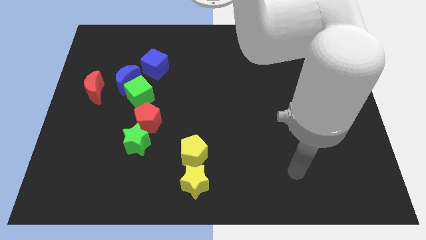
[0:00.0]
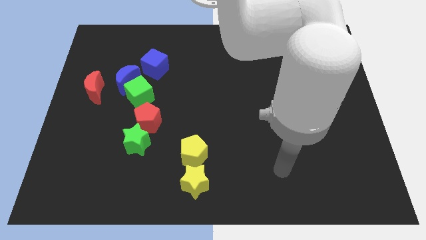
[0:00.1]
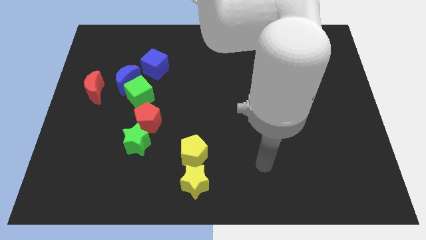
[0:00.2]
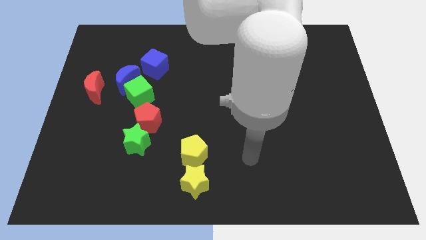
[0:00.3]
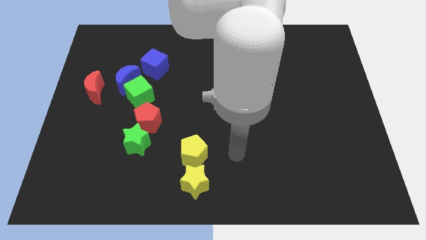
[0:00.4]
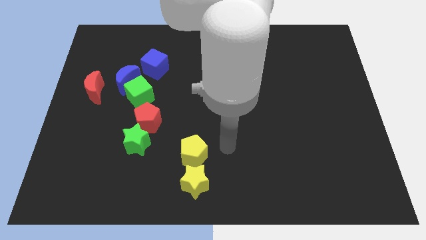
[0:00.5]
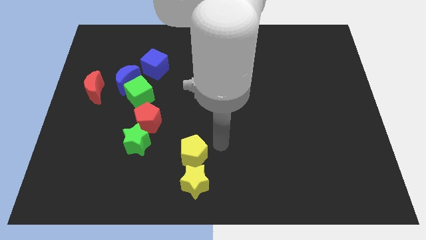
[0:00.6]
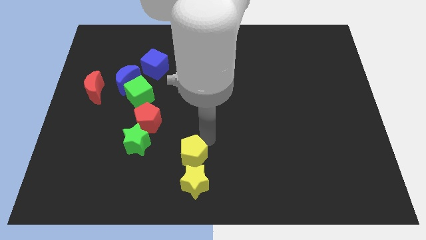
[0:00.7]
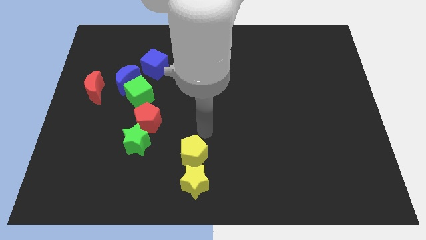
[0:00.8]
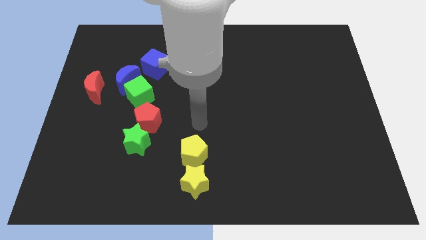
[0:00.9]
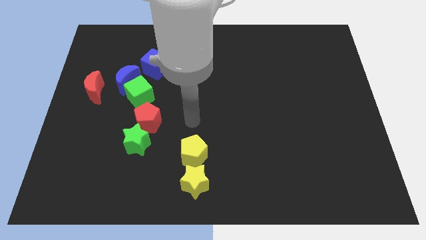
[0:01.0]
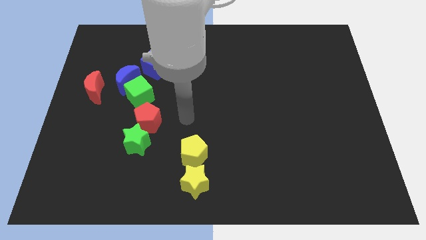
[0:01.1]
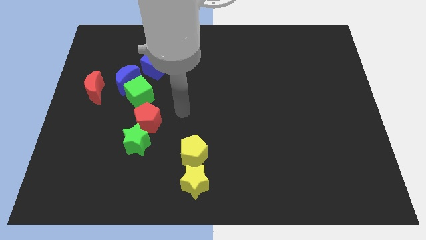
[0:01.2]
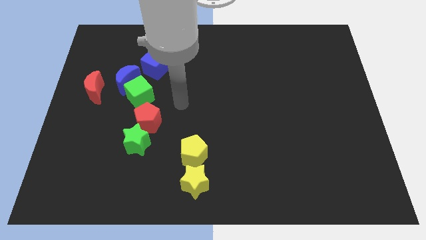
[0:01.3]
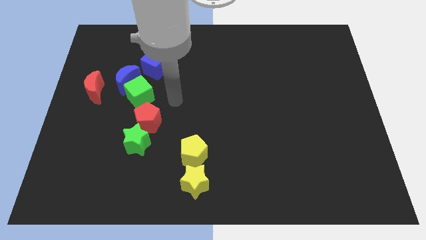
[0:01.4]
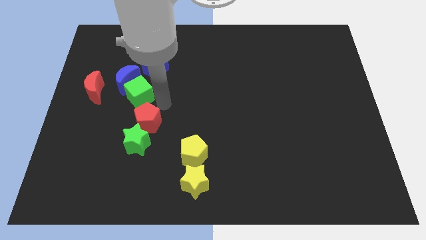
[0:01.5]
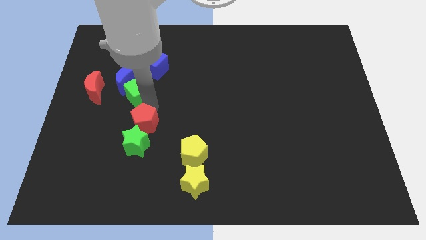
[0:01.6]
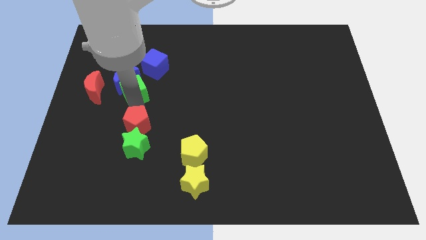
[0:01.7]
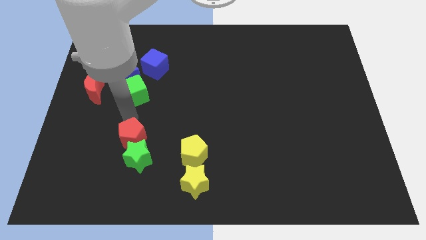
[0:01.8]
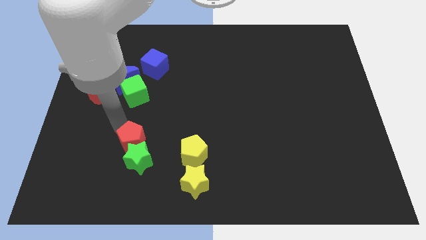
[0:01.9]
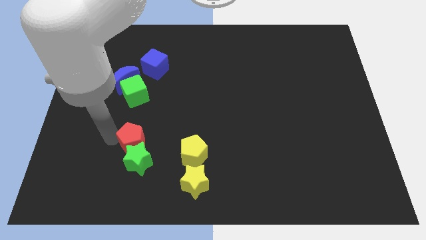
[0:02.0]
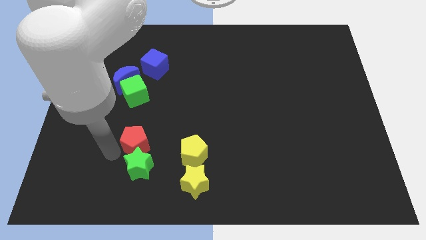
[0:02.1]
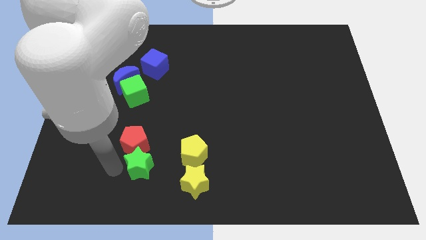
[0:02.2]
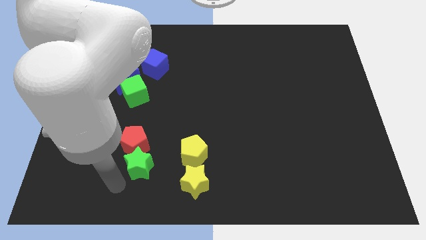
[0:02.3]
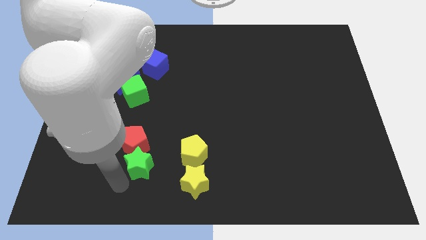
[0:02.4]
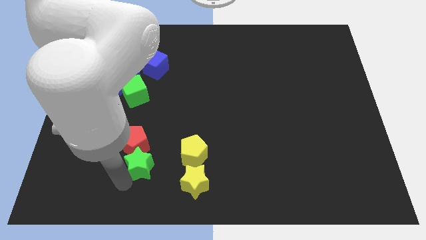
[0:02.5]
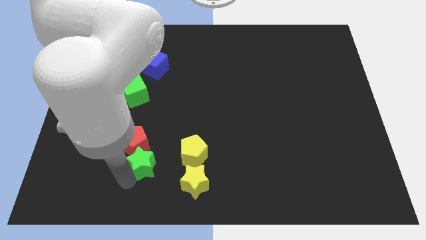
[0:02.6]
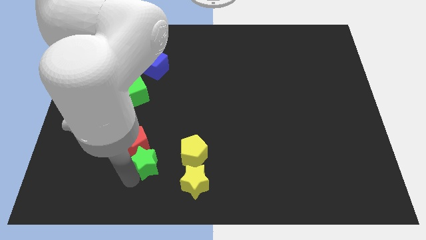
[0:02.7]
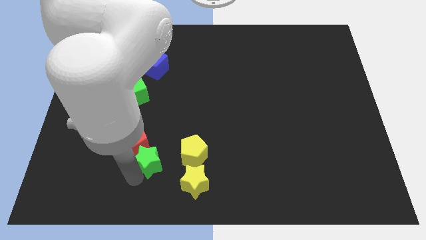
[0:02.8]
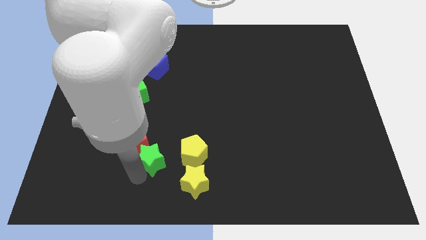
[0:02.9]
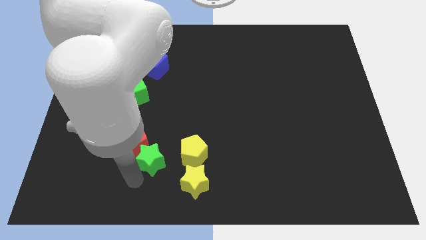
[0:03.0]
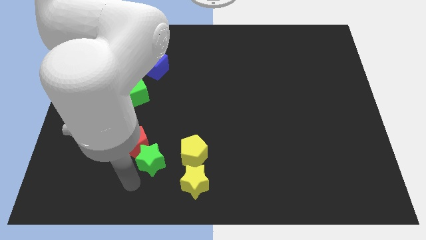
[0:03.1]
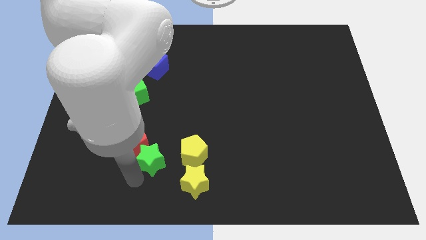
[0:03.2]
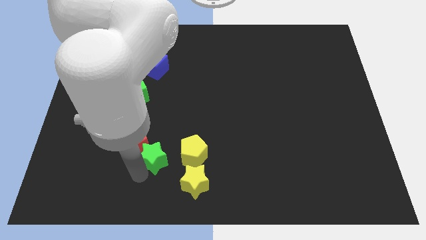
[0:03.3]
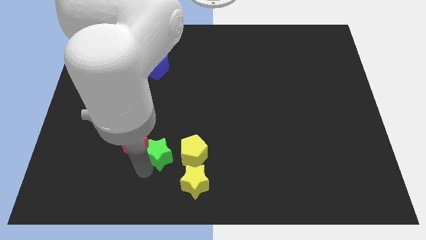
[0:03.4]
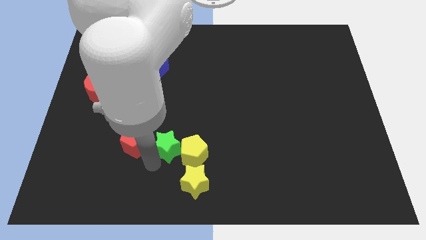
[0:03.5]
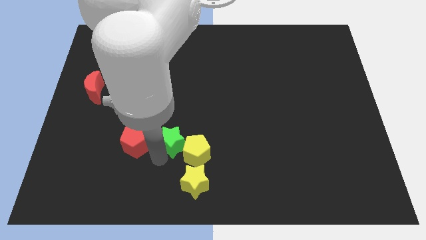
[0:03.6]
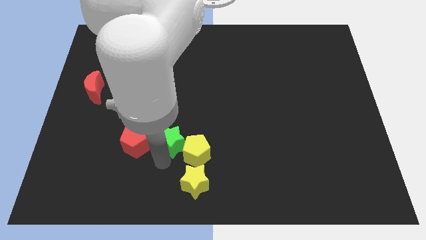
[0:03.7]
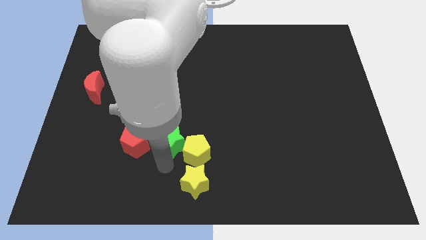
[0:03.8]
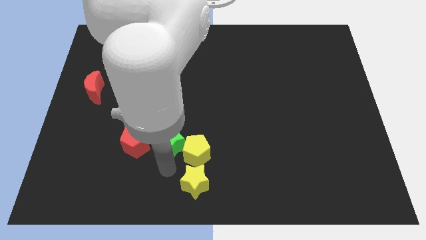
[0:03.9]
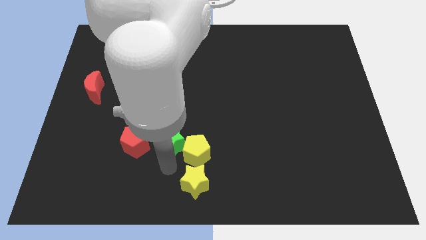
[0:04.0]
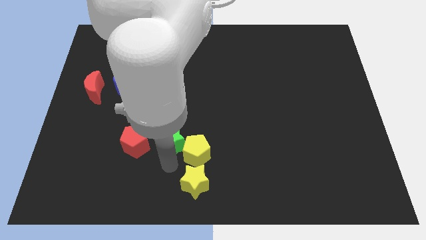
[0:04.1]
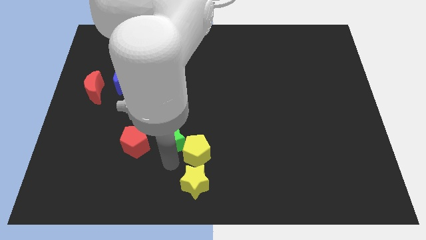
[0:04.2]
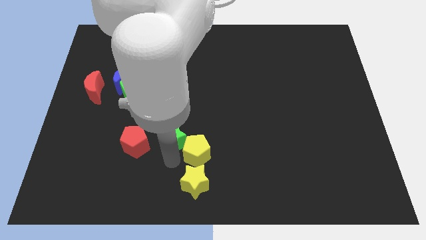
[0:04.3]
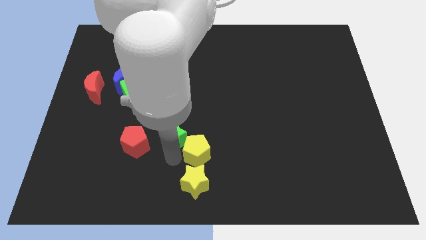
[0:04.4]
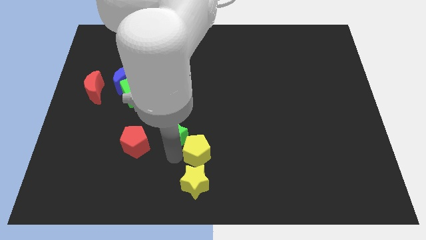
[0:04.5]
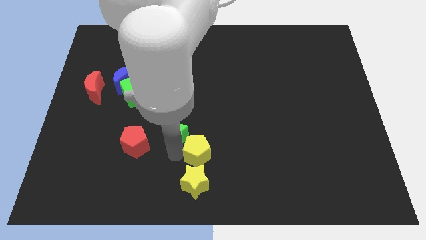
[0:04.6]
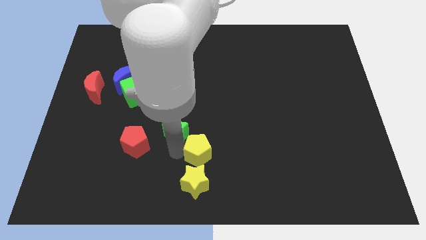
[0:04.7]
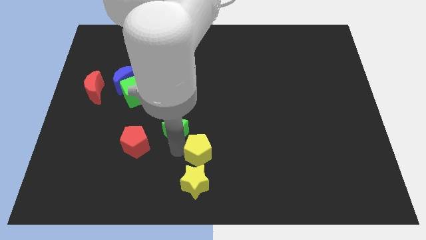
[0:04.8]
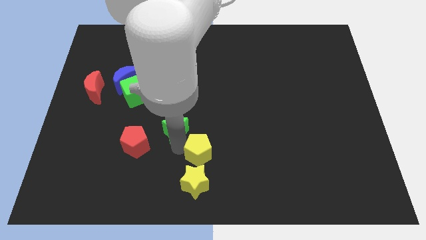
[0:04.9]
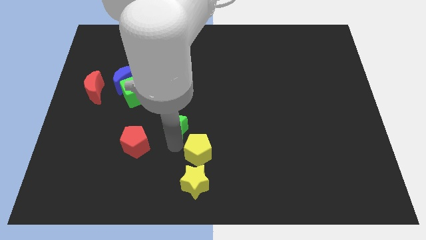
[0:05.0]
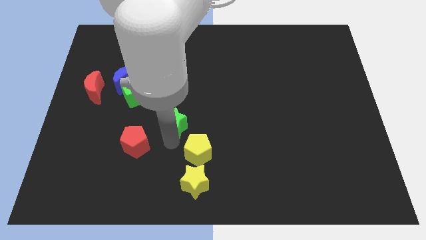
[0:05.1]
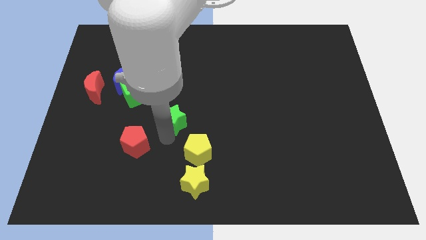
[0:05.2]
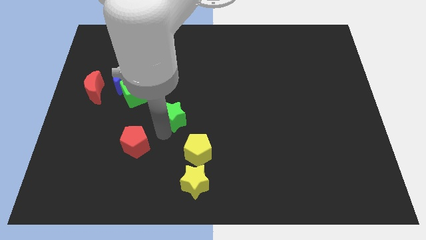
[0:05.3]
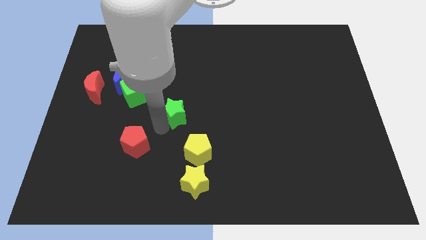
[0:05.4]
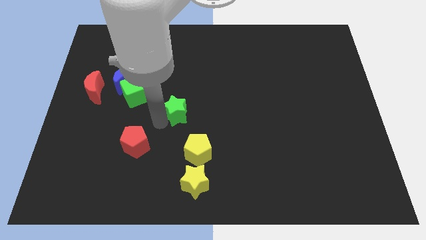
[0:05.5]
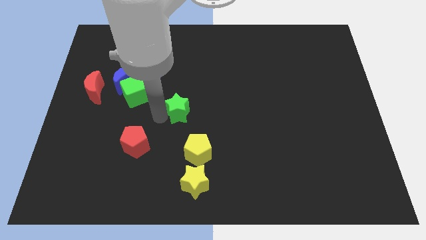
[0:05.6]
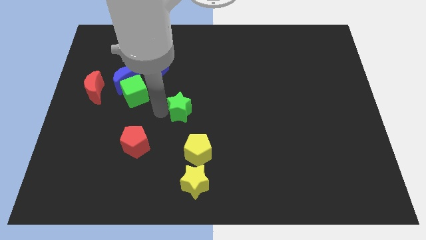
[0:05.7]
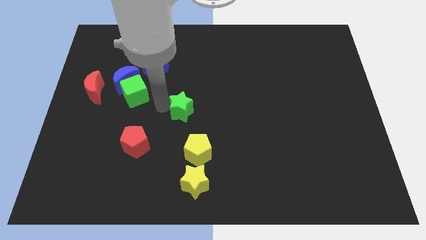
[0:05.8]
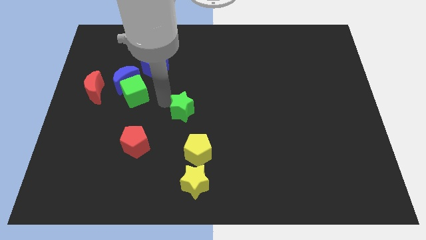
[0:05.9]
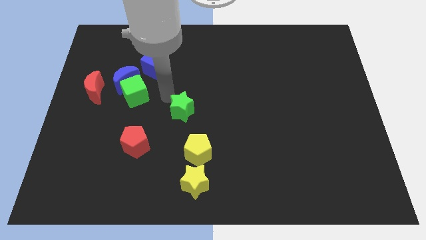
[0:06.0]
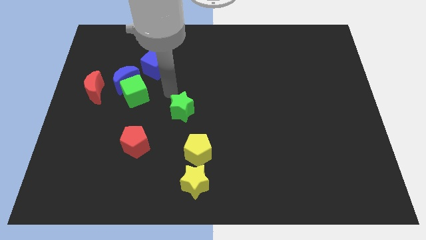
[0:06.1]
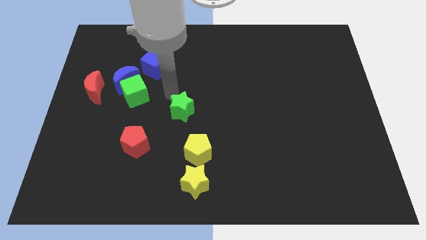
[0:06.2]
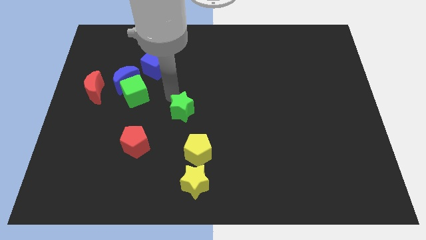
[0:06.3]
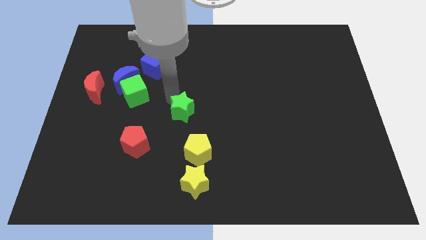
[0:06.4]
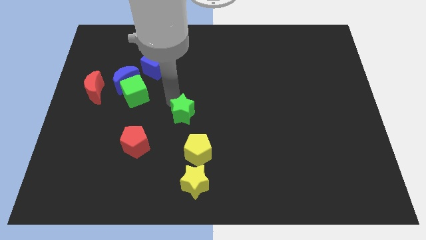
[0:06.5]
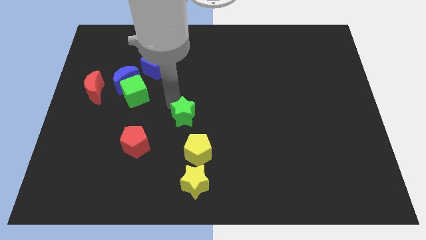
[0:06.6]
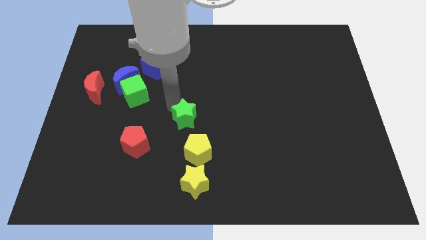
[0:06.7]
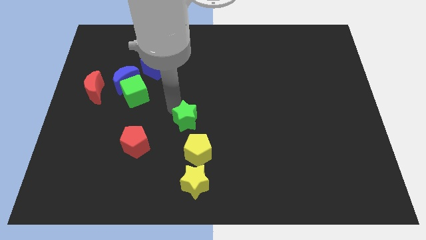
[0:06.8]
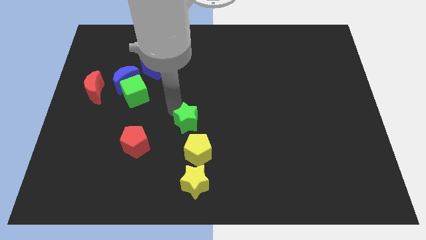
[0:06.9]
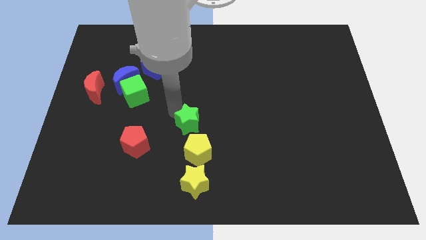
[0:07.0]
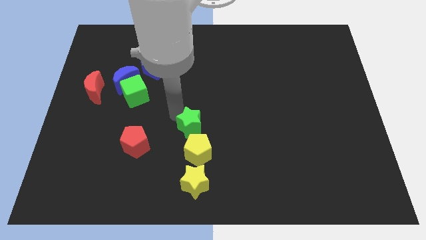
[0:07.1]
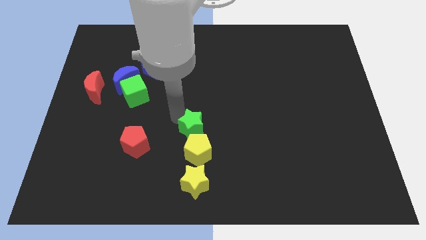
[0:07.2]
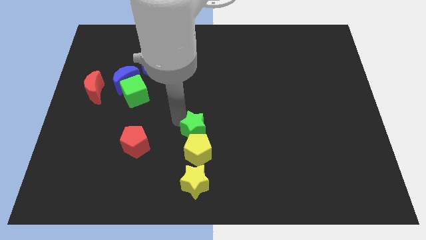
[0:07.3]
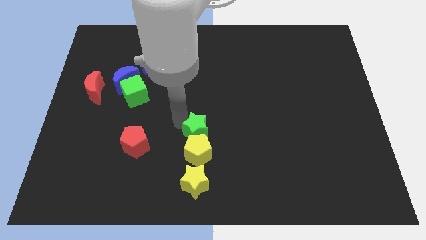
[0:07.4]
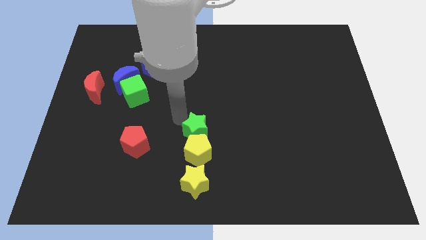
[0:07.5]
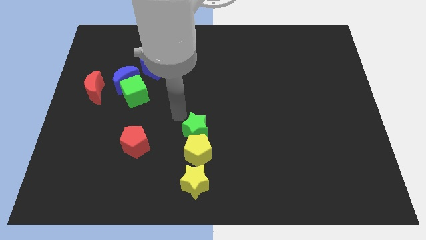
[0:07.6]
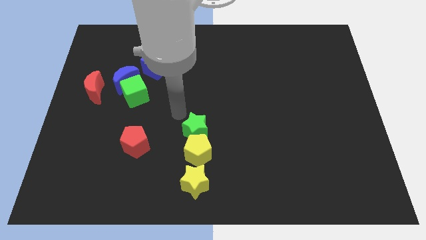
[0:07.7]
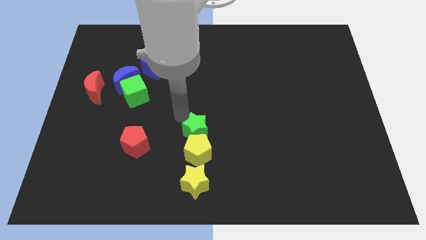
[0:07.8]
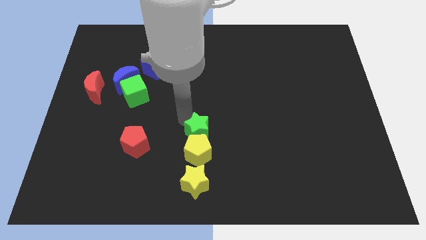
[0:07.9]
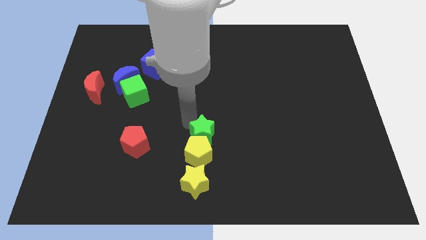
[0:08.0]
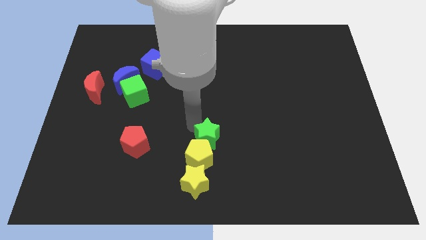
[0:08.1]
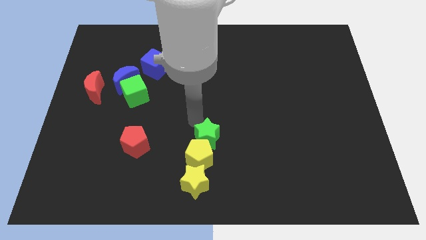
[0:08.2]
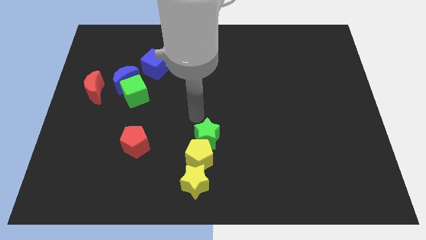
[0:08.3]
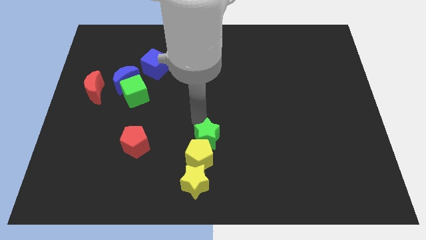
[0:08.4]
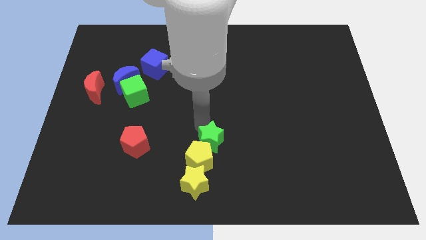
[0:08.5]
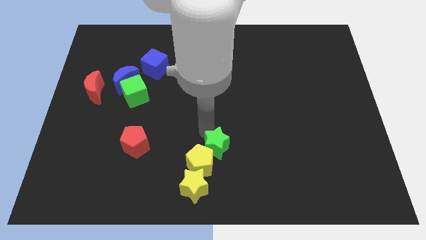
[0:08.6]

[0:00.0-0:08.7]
put the green star to the top right side of the yellow star
